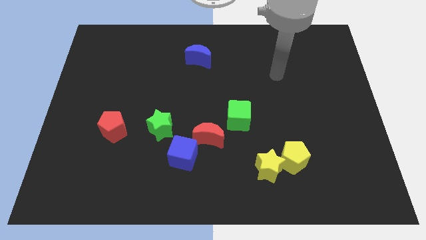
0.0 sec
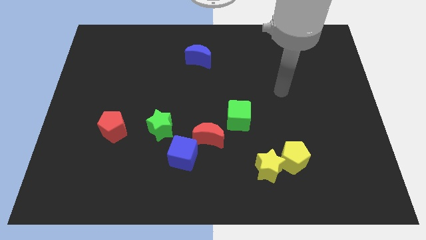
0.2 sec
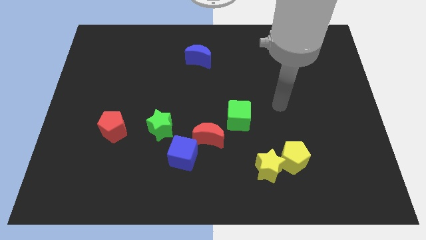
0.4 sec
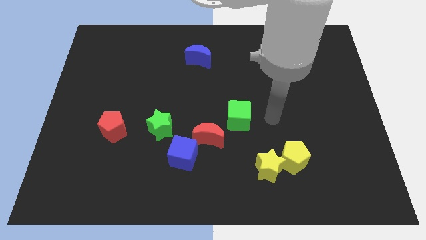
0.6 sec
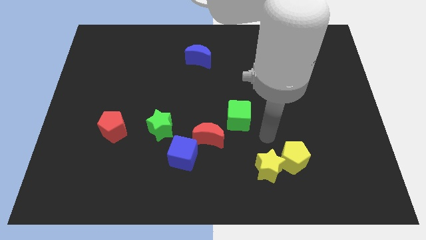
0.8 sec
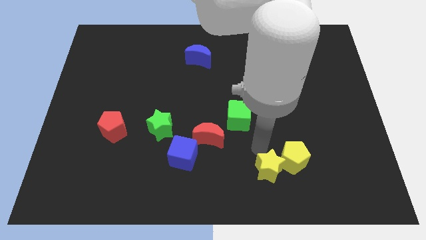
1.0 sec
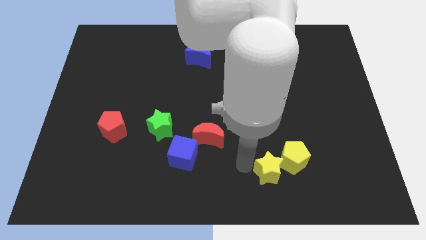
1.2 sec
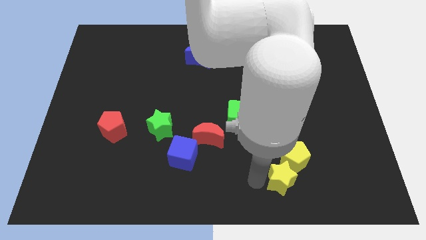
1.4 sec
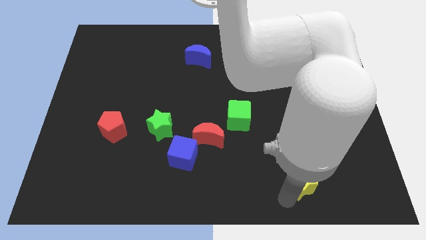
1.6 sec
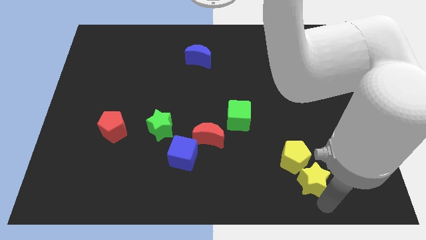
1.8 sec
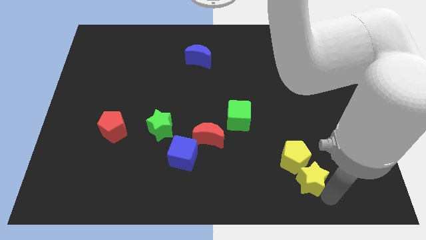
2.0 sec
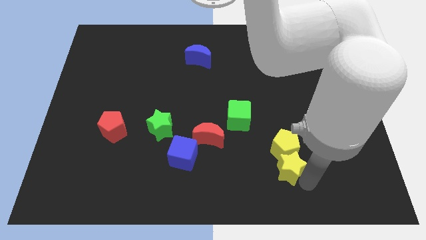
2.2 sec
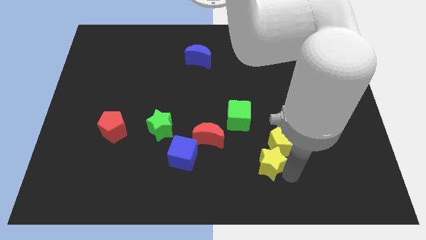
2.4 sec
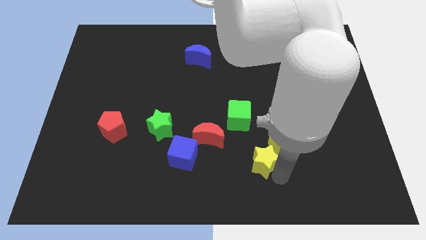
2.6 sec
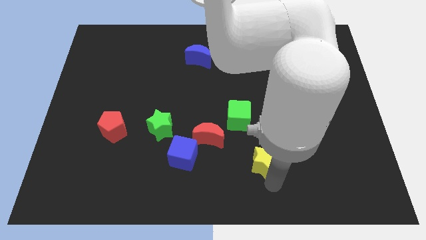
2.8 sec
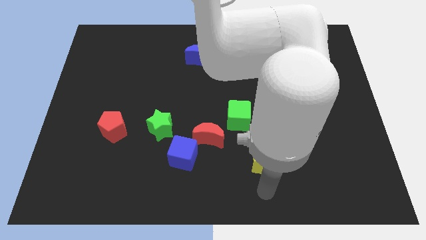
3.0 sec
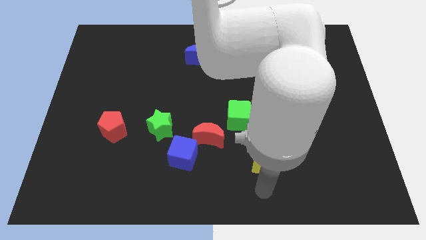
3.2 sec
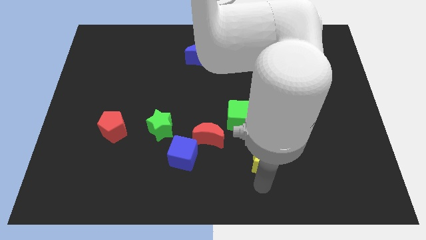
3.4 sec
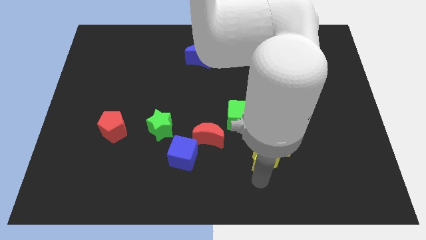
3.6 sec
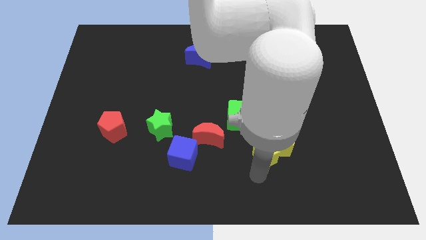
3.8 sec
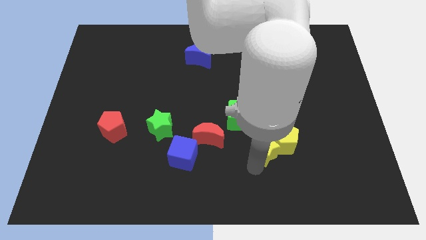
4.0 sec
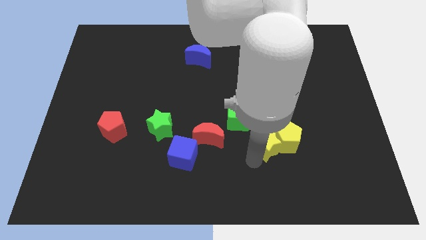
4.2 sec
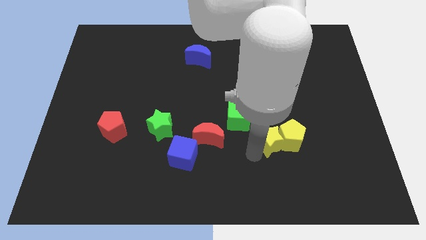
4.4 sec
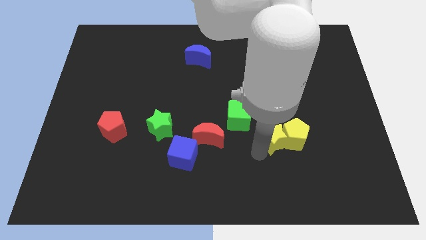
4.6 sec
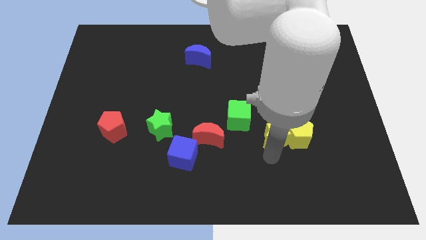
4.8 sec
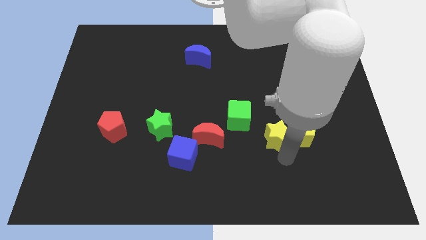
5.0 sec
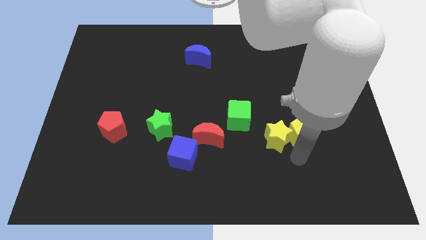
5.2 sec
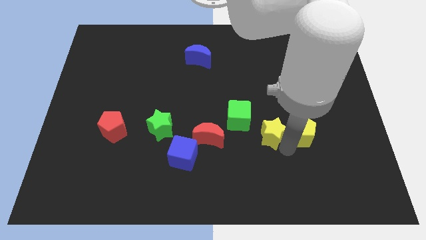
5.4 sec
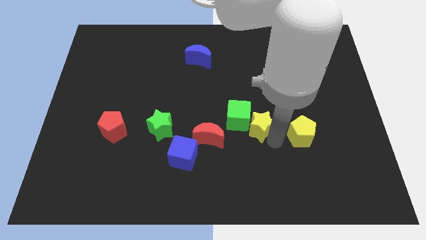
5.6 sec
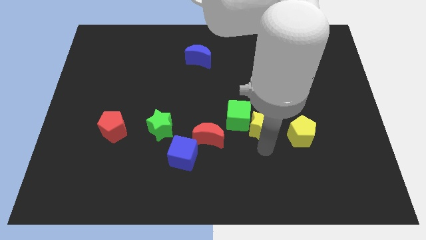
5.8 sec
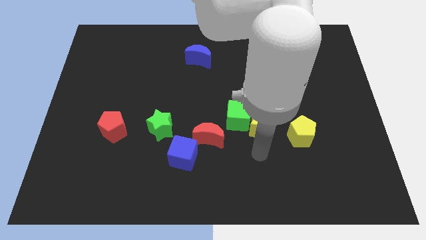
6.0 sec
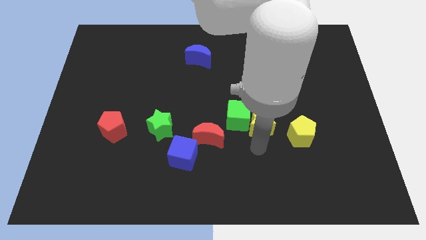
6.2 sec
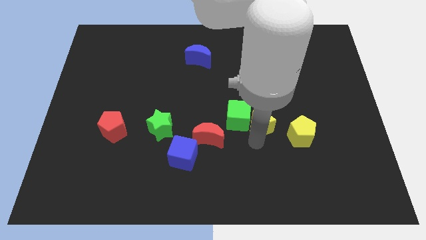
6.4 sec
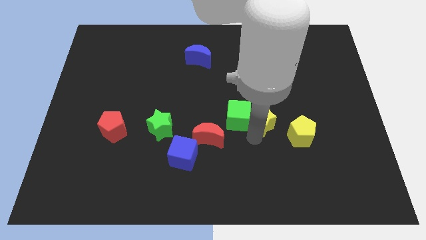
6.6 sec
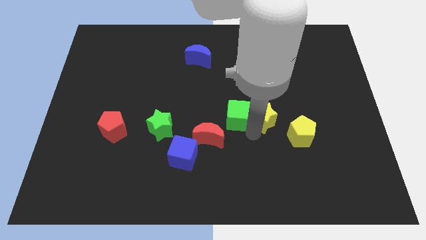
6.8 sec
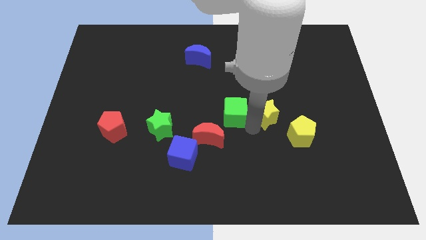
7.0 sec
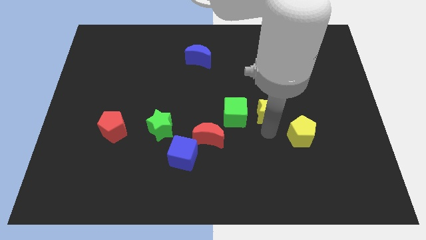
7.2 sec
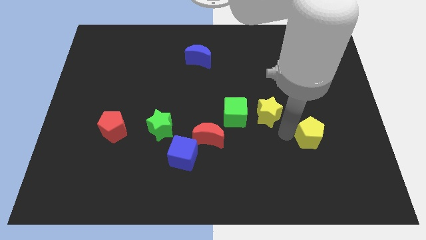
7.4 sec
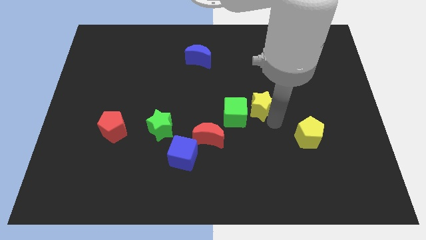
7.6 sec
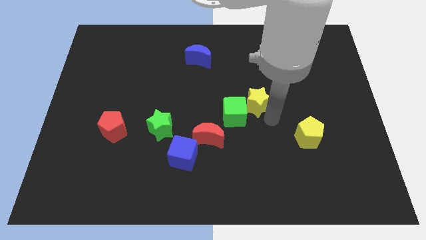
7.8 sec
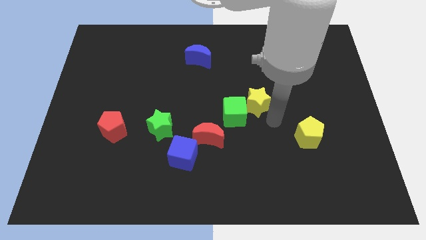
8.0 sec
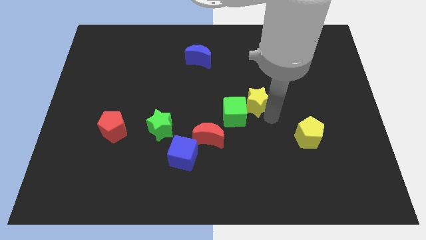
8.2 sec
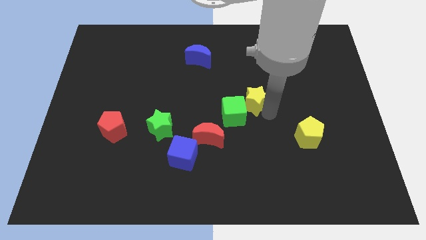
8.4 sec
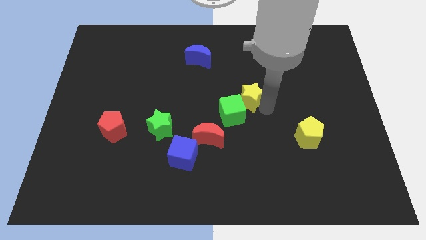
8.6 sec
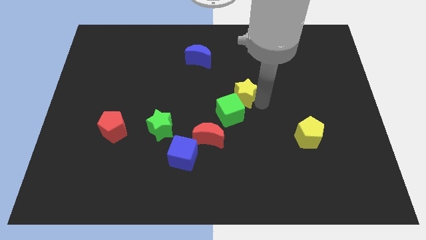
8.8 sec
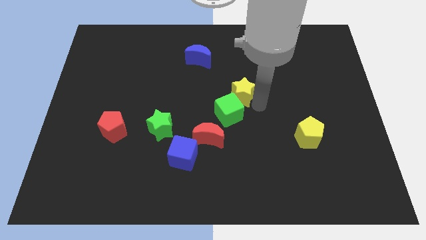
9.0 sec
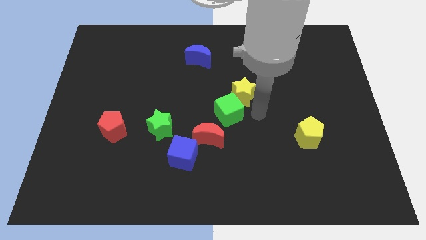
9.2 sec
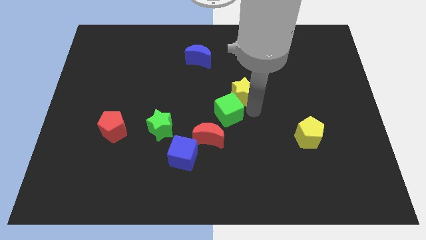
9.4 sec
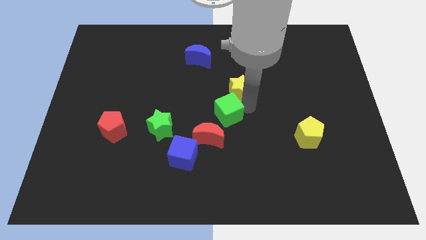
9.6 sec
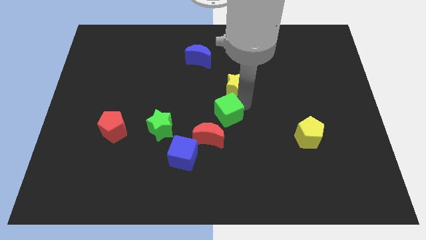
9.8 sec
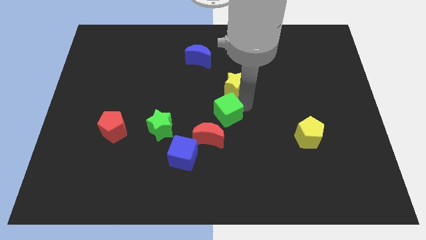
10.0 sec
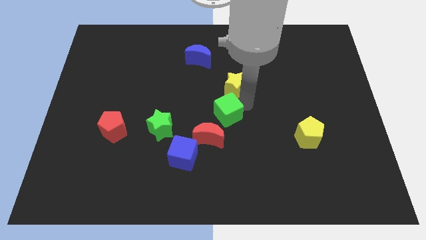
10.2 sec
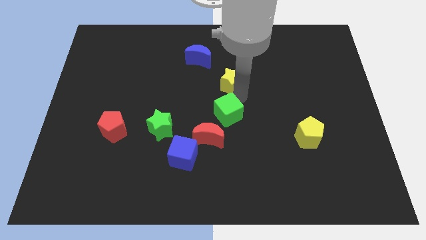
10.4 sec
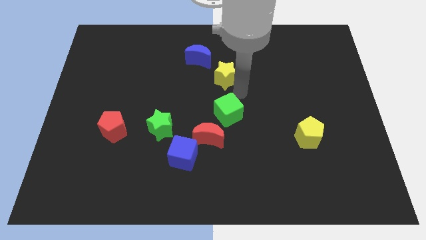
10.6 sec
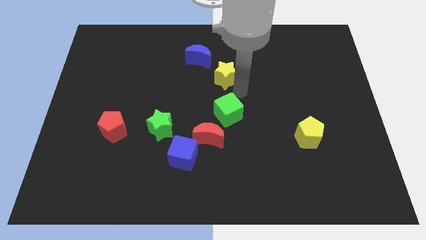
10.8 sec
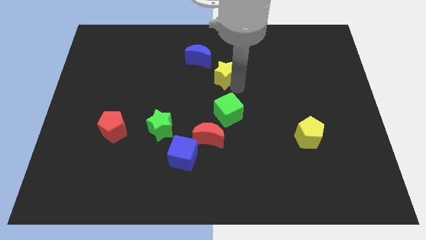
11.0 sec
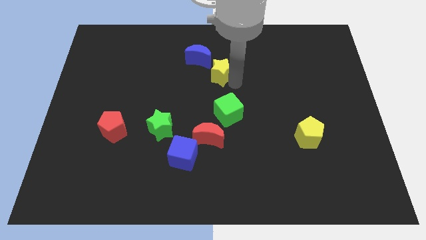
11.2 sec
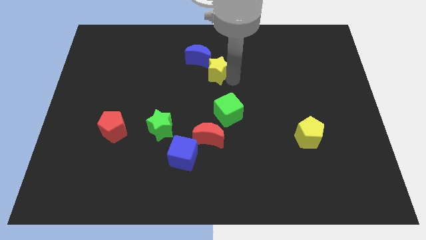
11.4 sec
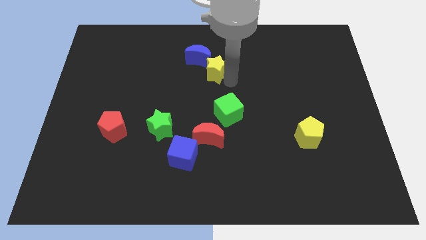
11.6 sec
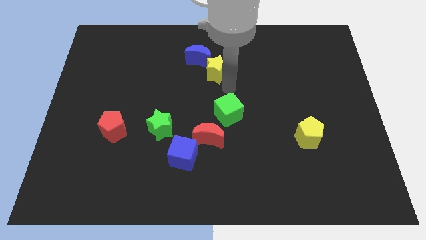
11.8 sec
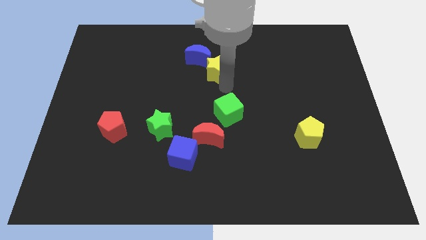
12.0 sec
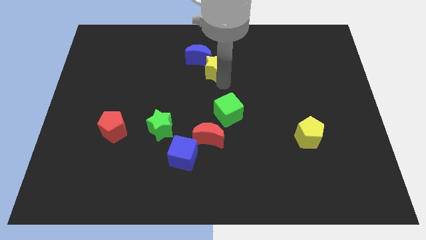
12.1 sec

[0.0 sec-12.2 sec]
slide the yellow star close to the blue moon

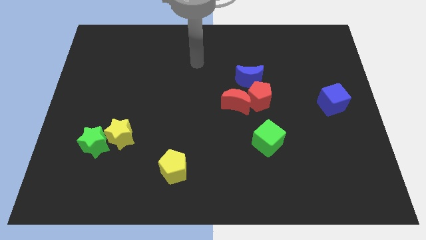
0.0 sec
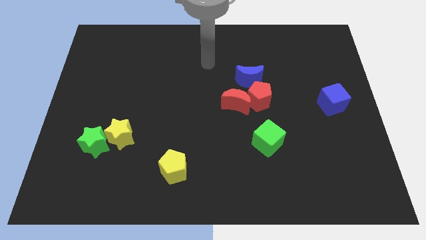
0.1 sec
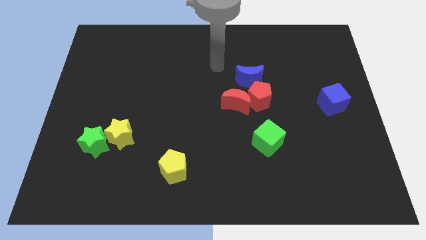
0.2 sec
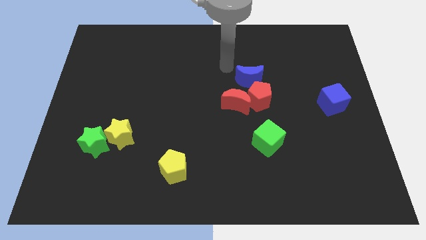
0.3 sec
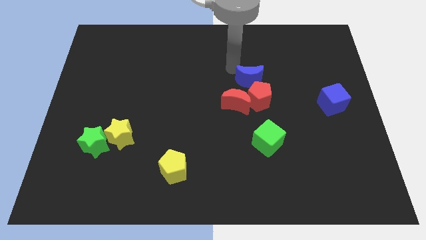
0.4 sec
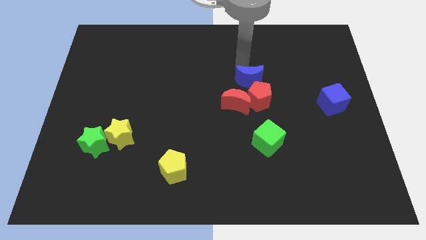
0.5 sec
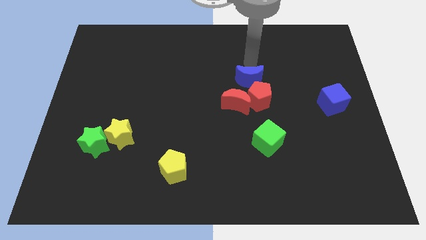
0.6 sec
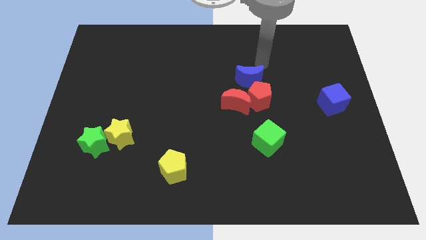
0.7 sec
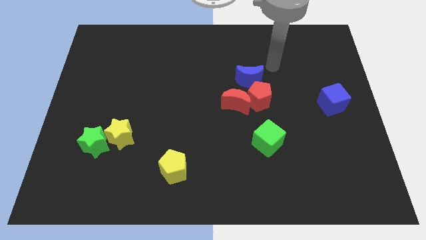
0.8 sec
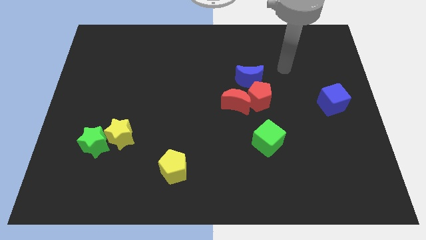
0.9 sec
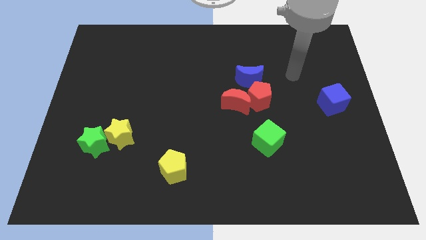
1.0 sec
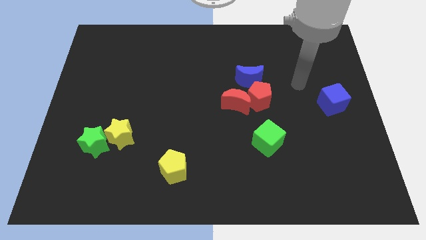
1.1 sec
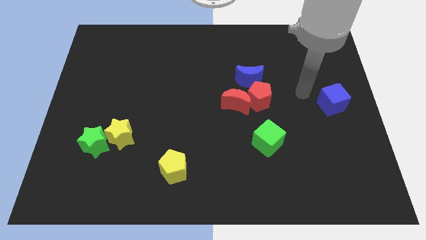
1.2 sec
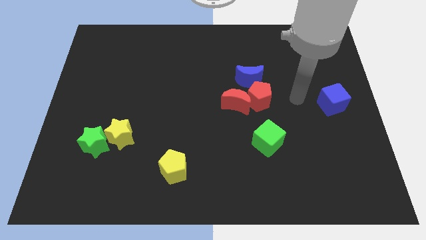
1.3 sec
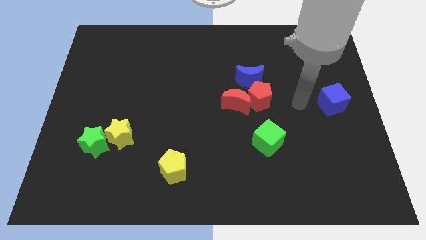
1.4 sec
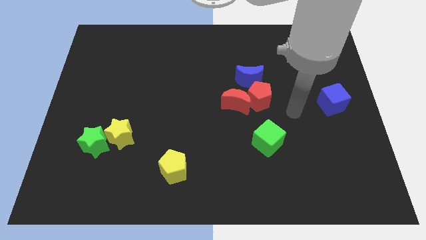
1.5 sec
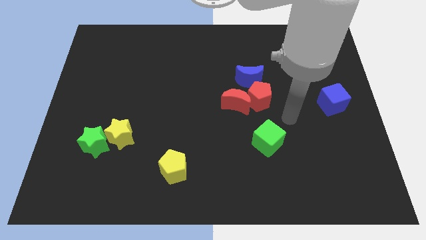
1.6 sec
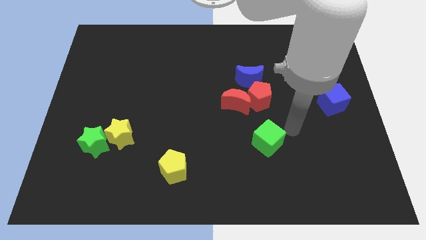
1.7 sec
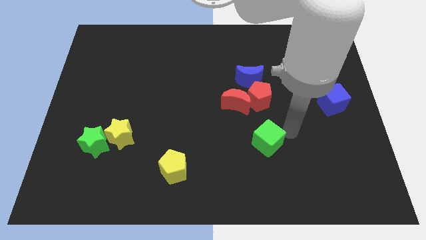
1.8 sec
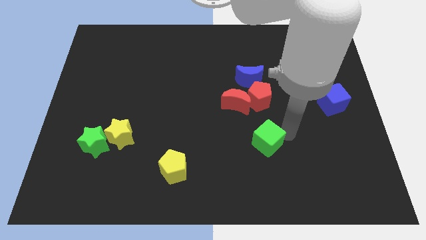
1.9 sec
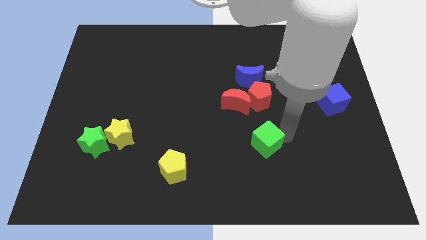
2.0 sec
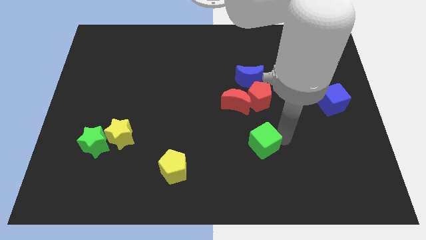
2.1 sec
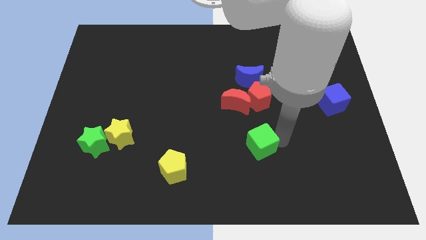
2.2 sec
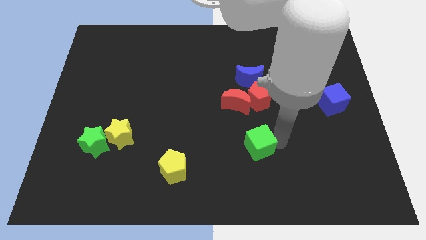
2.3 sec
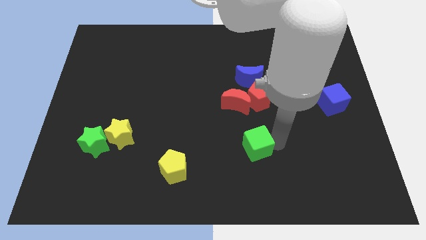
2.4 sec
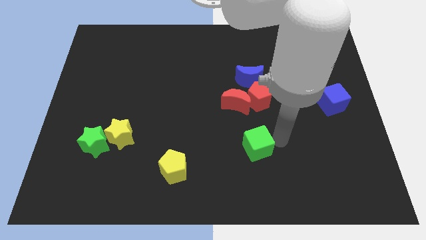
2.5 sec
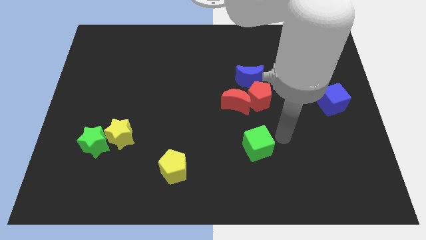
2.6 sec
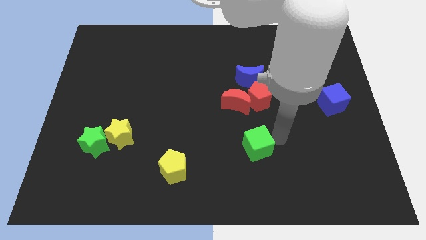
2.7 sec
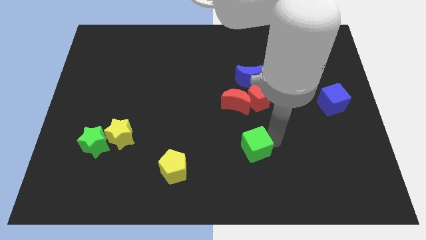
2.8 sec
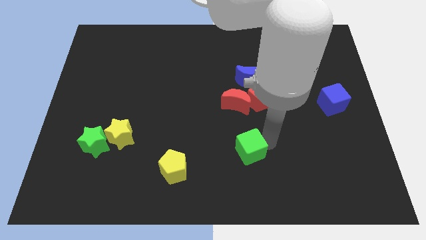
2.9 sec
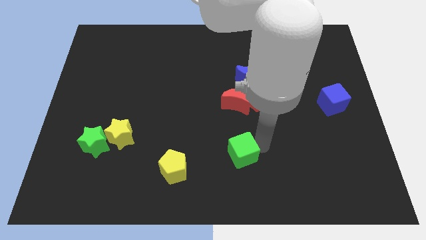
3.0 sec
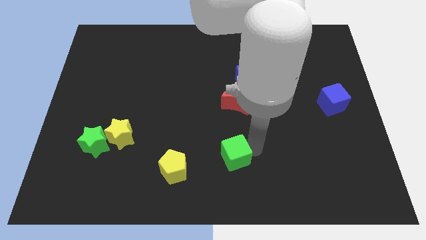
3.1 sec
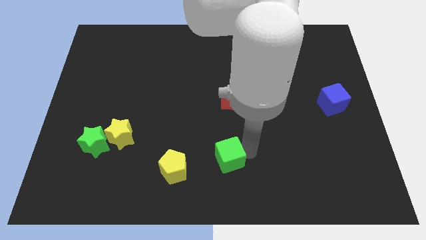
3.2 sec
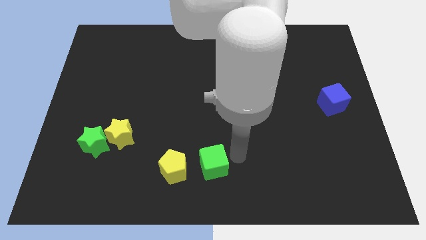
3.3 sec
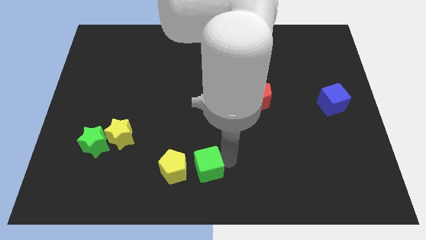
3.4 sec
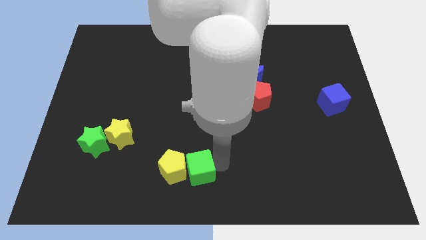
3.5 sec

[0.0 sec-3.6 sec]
put the green cube towards the yellow pentagon
